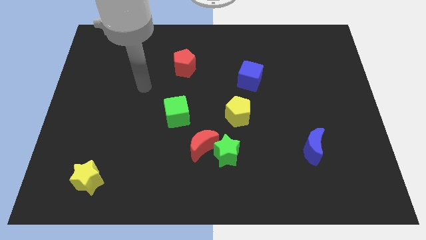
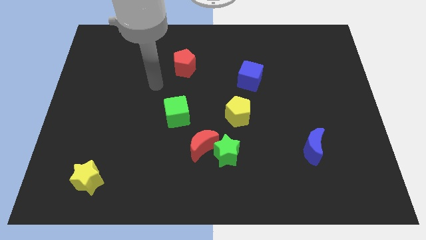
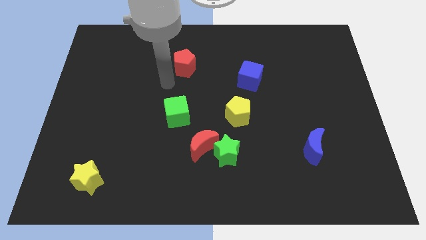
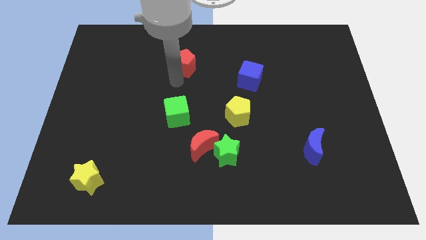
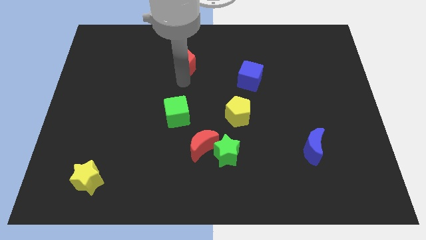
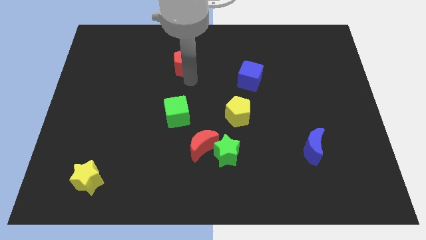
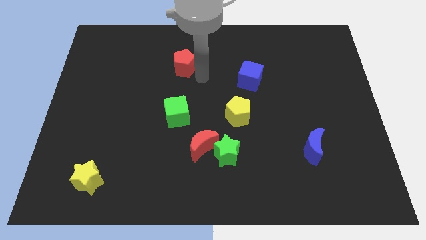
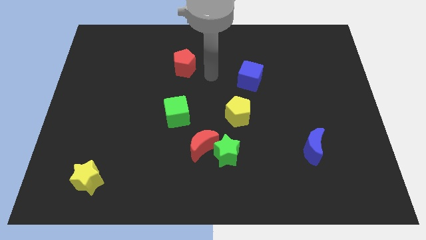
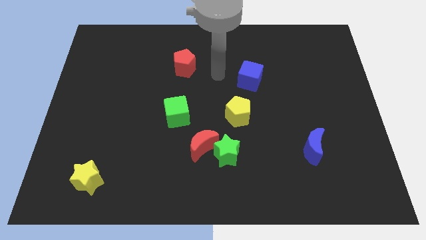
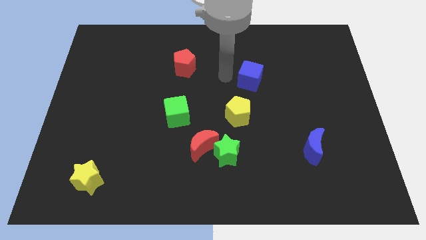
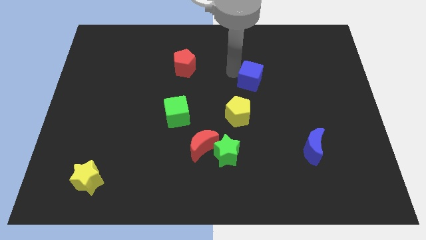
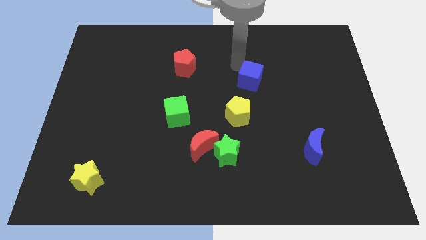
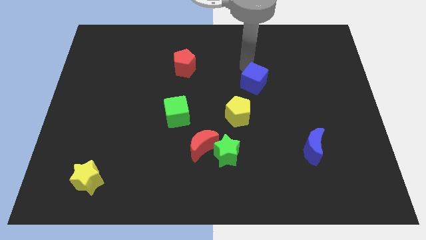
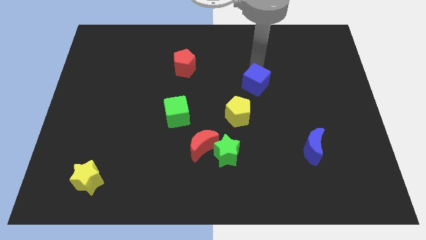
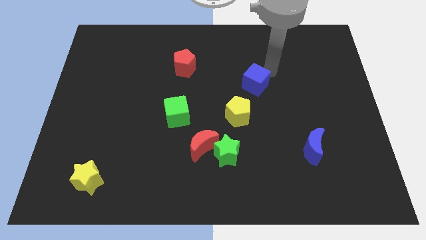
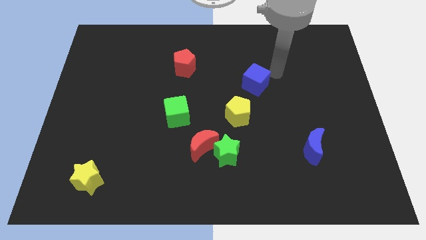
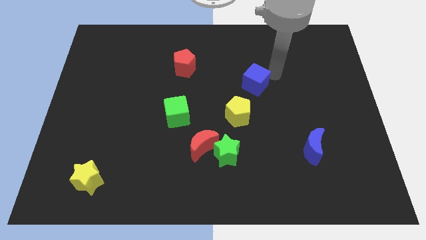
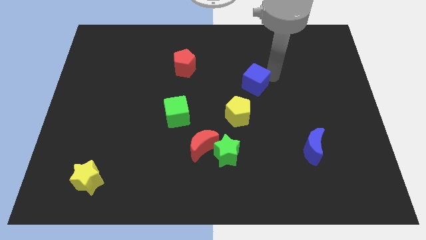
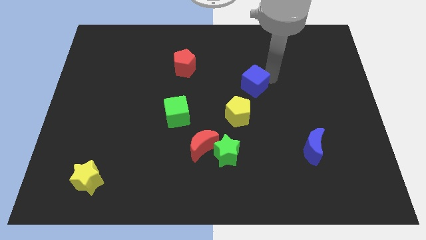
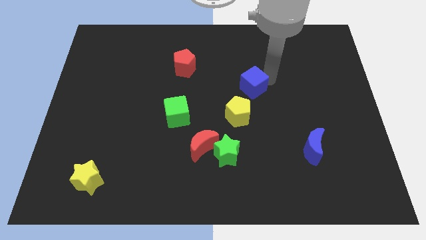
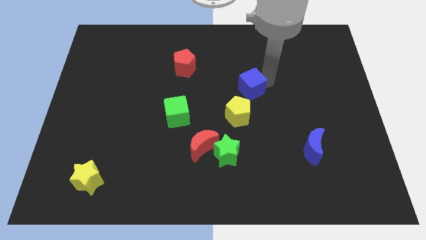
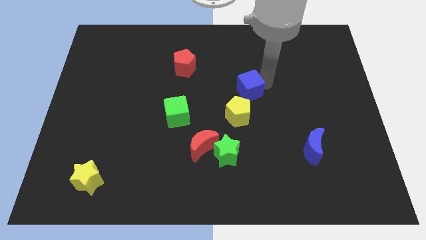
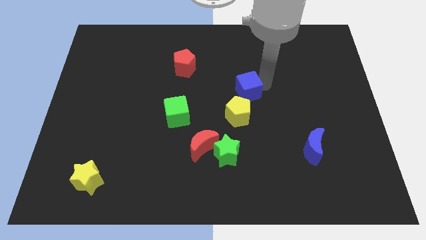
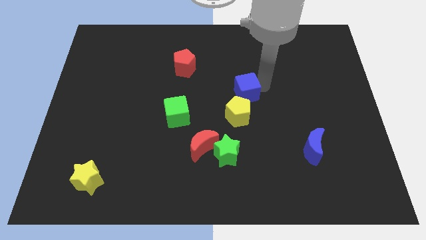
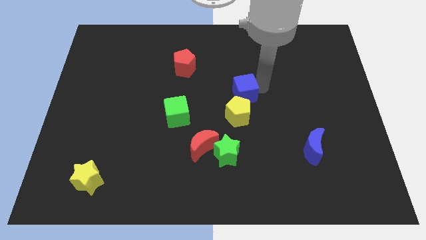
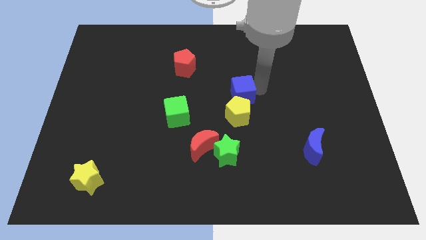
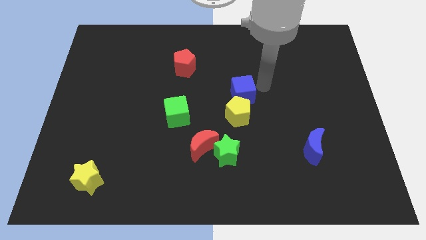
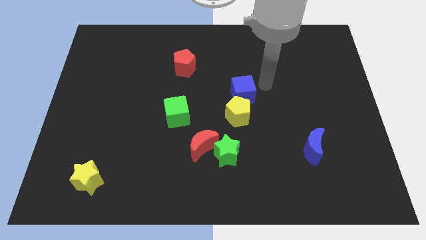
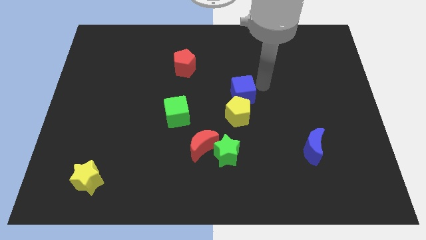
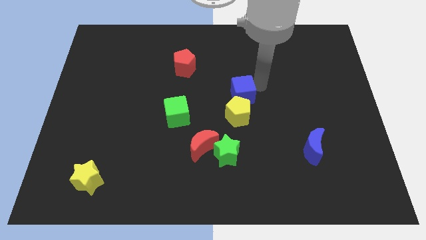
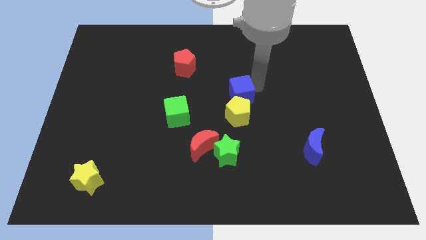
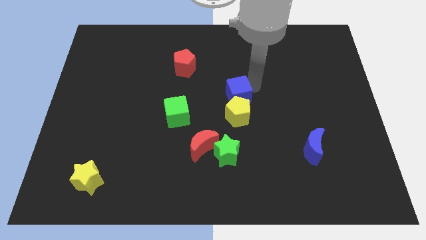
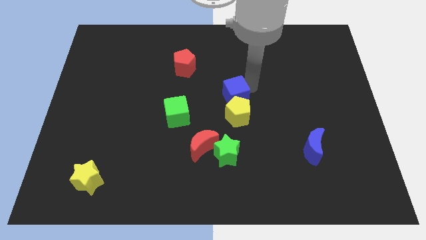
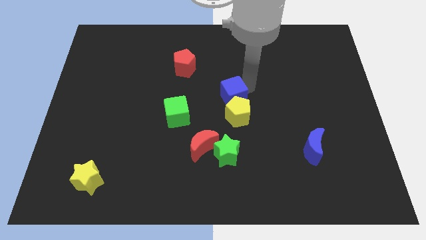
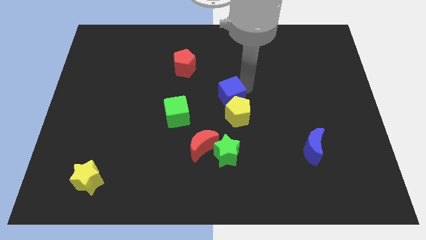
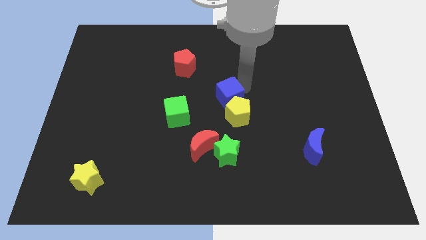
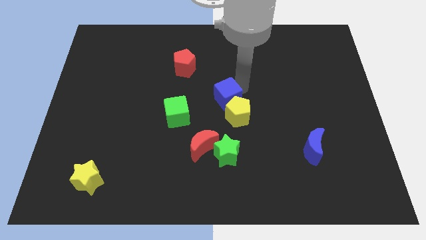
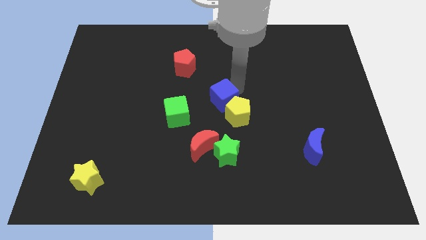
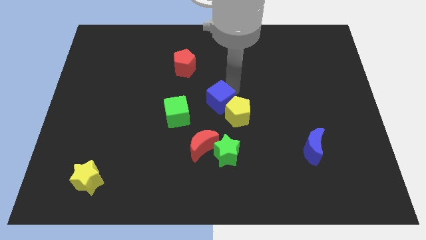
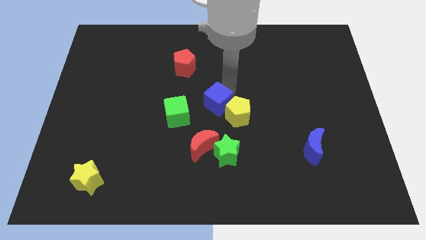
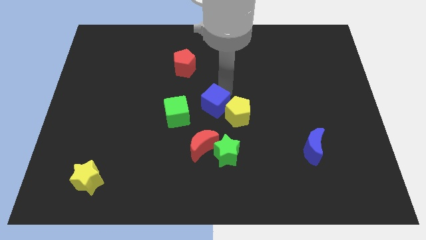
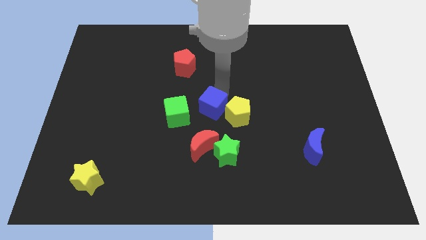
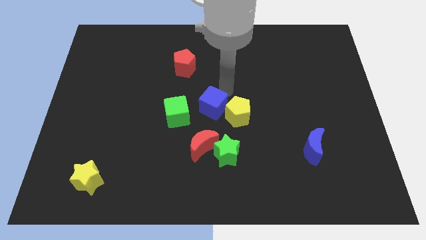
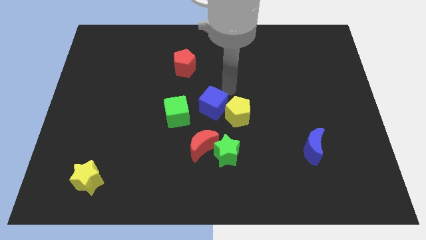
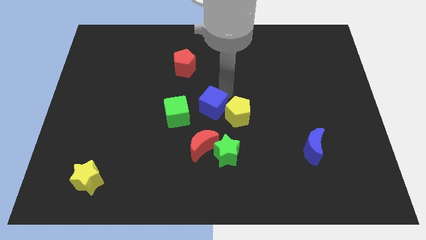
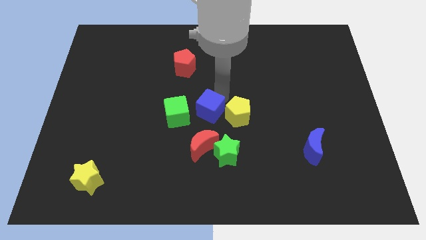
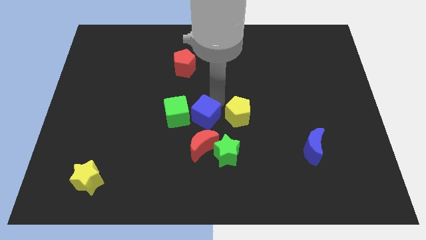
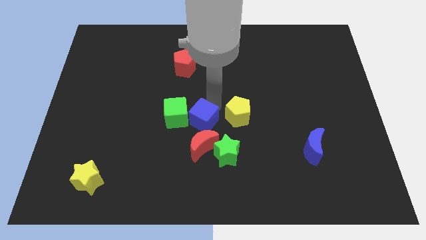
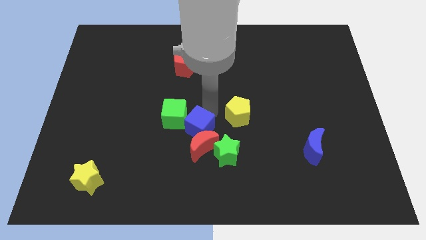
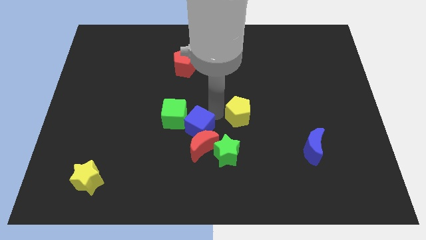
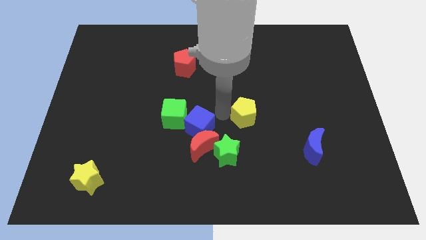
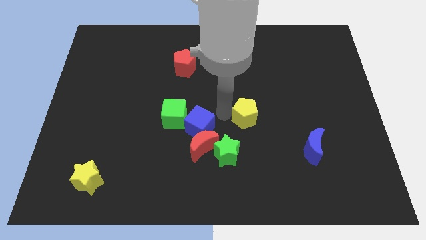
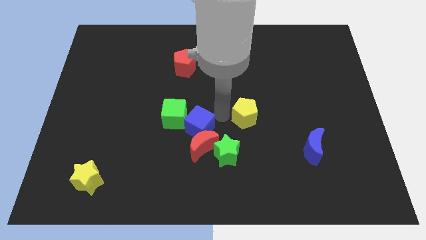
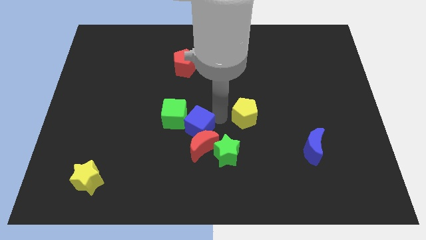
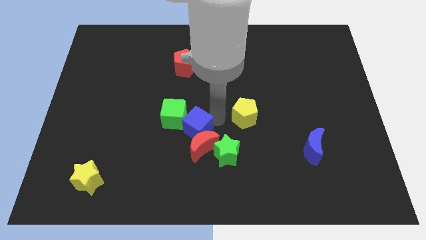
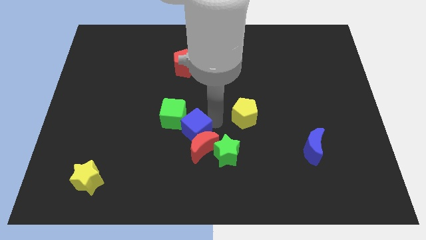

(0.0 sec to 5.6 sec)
move the blue cube down and to the left

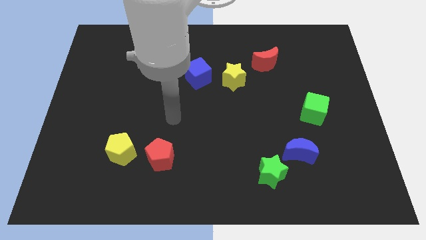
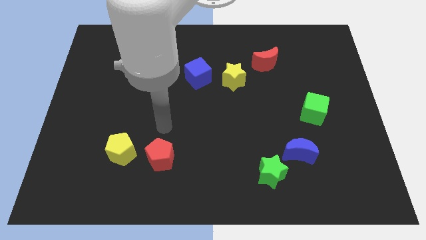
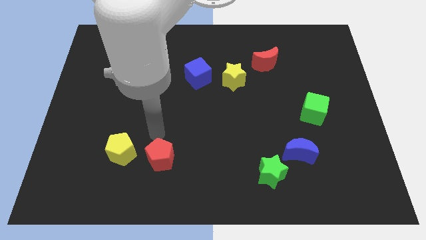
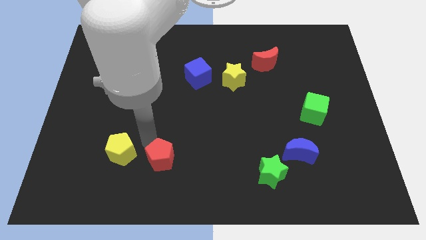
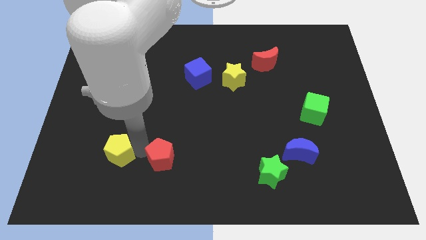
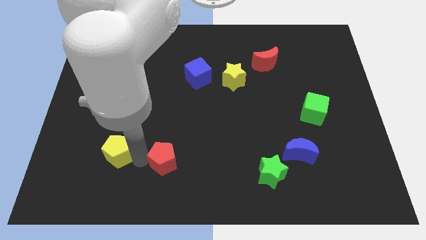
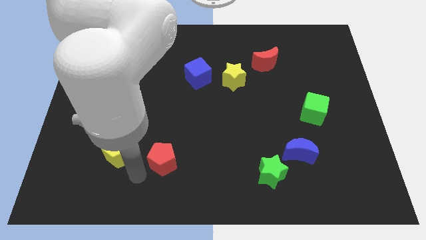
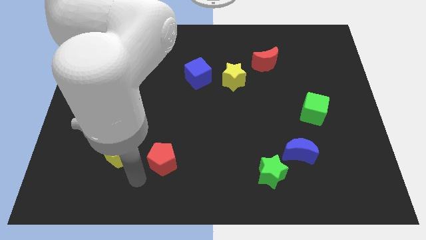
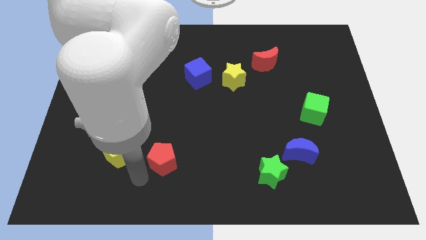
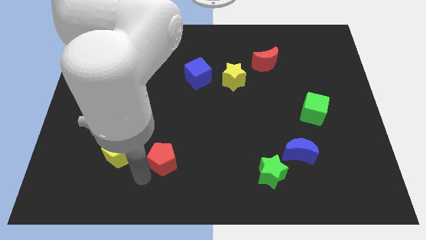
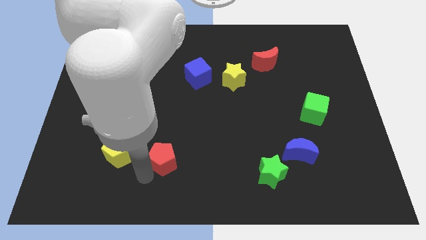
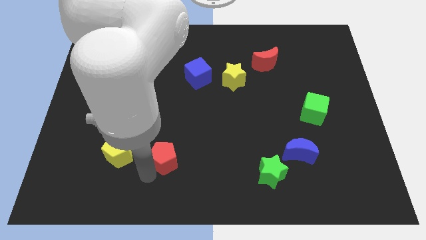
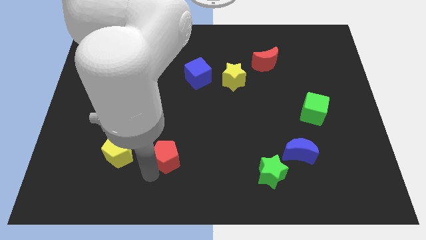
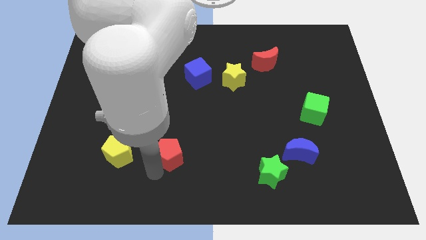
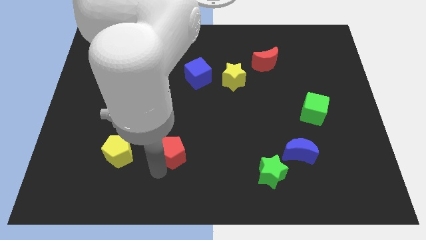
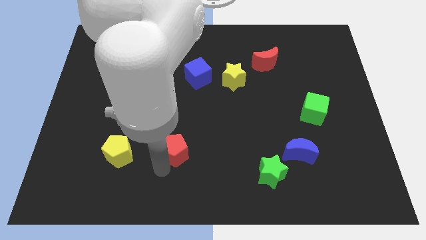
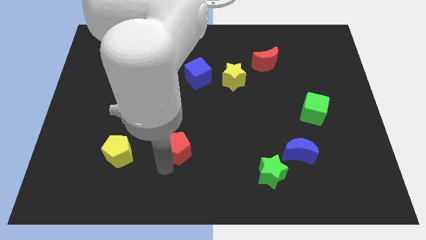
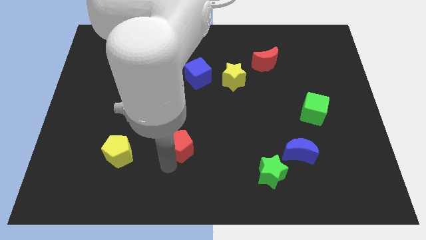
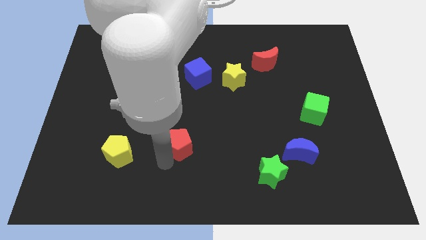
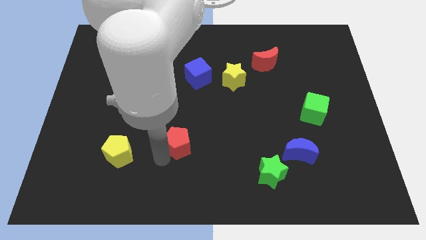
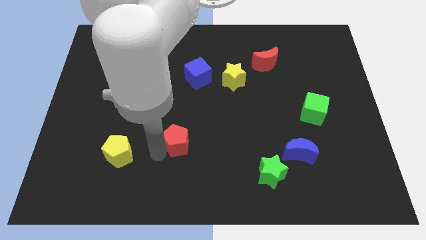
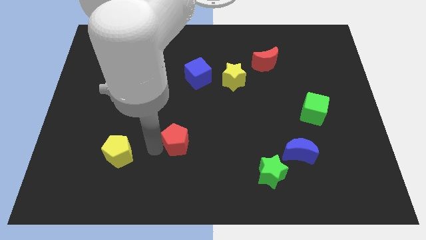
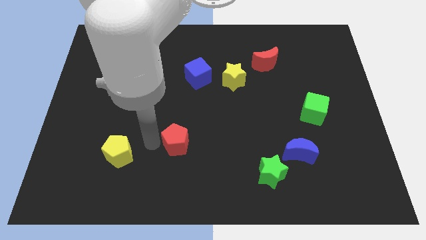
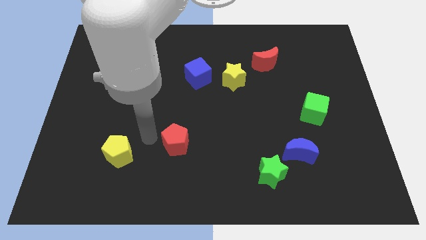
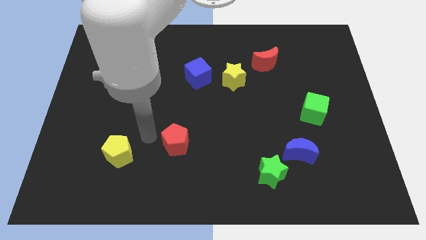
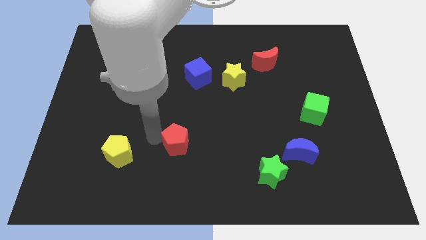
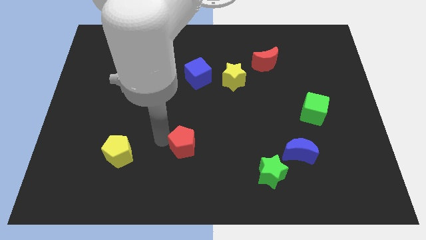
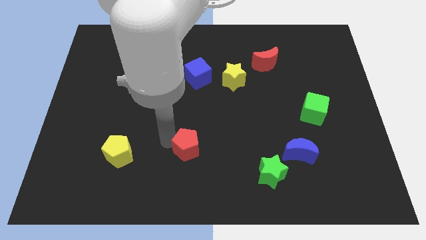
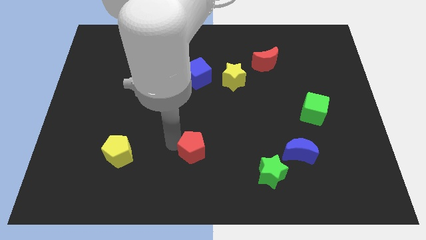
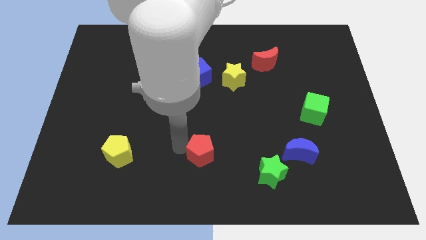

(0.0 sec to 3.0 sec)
push the red pentagon a little bit right
